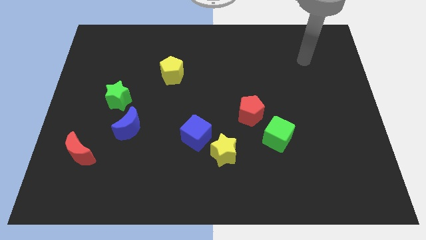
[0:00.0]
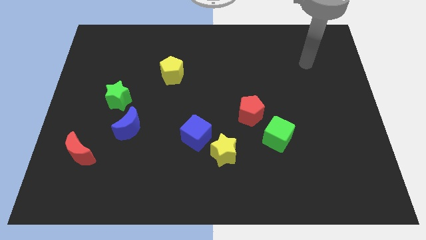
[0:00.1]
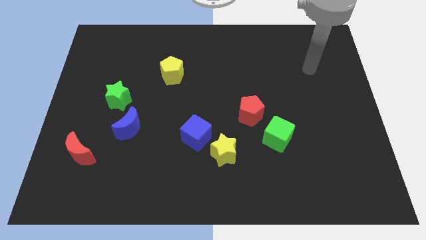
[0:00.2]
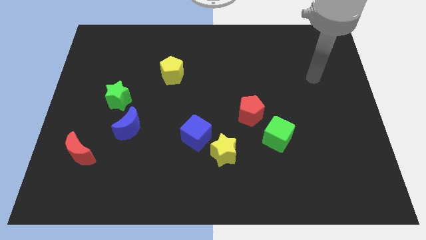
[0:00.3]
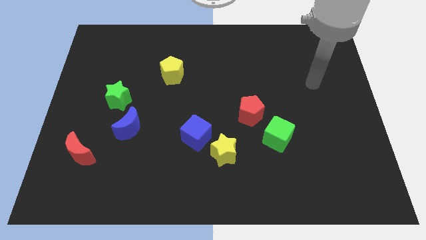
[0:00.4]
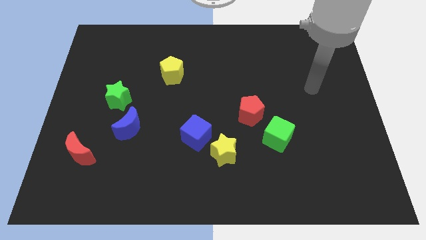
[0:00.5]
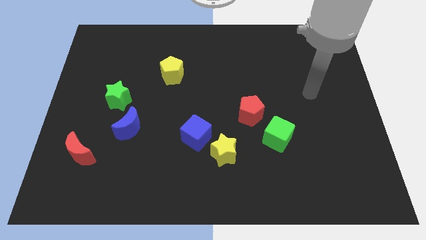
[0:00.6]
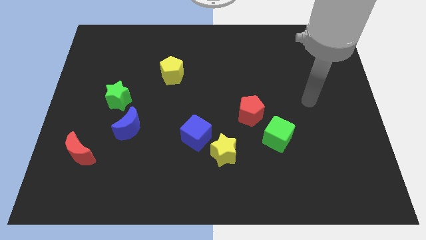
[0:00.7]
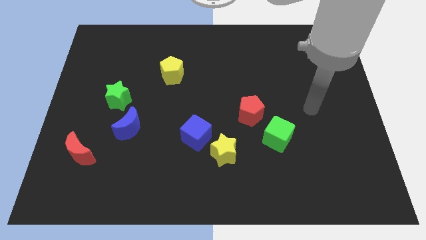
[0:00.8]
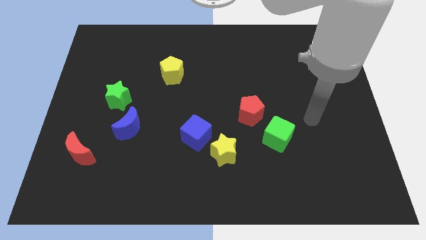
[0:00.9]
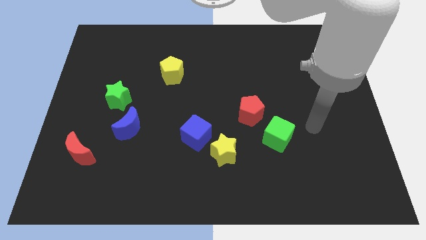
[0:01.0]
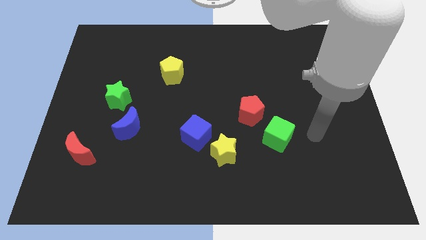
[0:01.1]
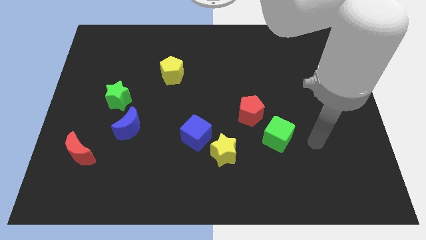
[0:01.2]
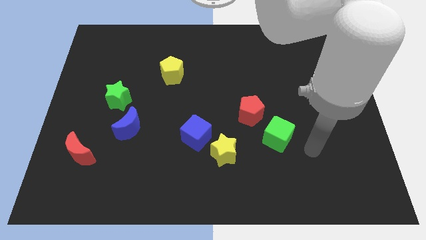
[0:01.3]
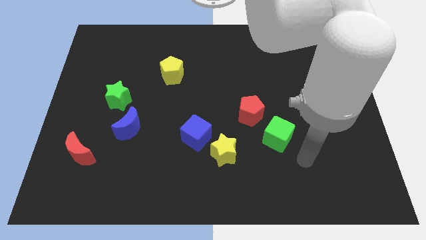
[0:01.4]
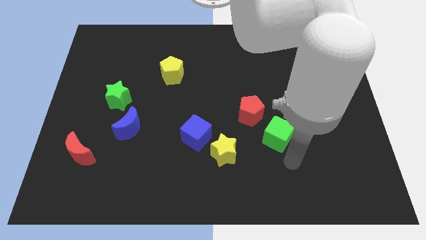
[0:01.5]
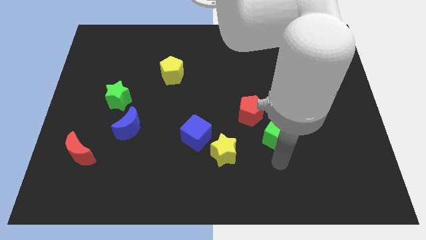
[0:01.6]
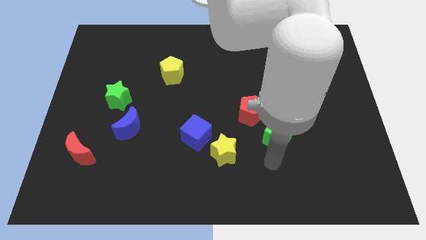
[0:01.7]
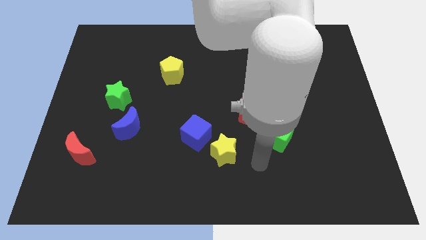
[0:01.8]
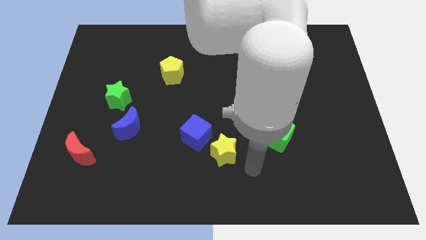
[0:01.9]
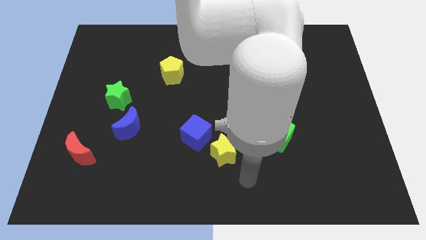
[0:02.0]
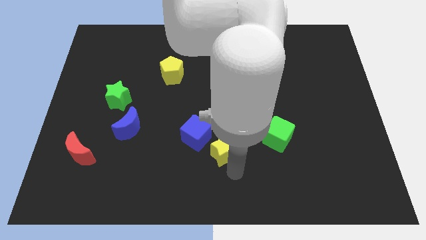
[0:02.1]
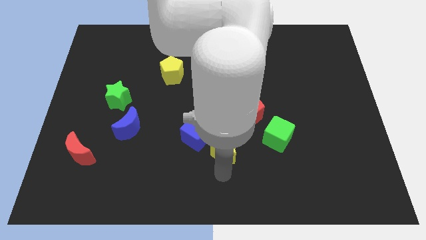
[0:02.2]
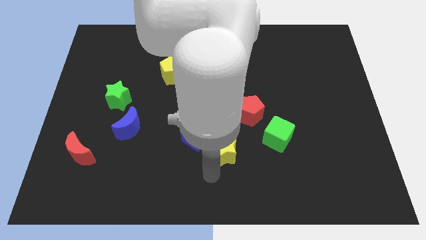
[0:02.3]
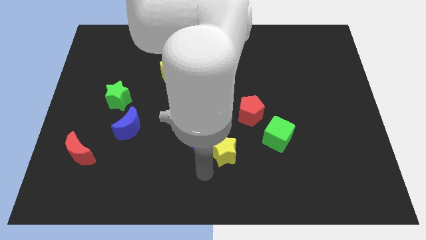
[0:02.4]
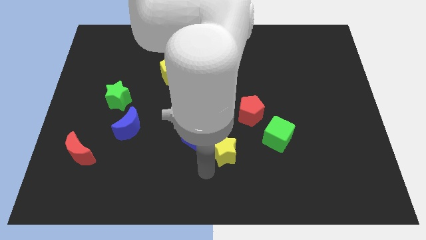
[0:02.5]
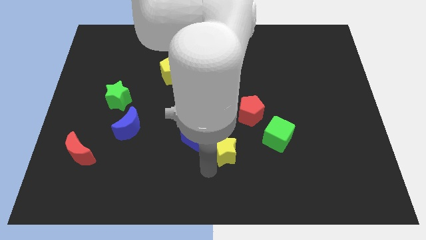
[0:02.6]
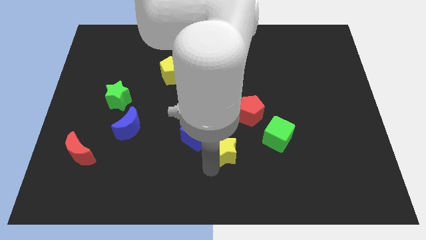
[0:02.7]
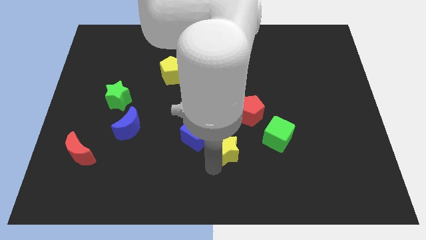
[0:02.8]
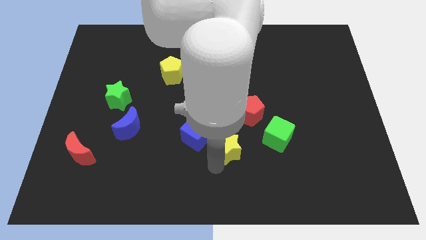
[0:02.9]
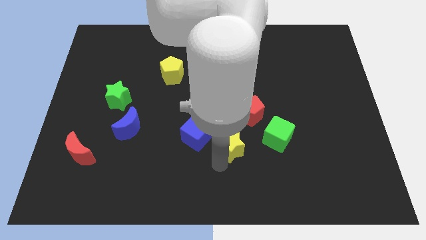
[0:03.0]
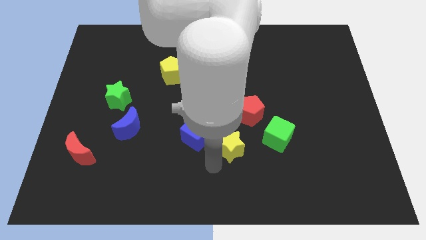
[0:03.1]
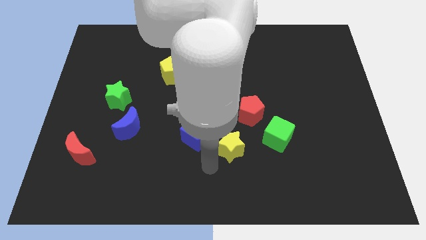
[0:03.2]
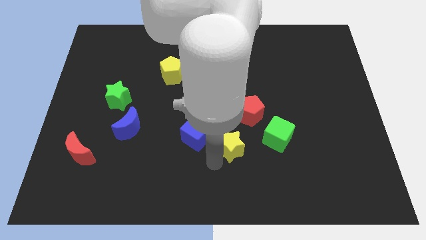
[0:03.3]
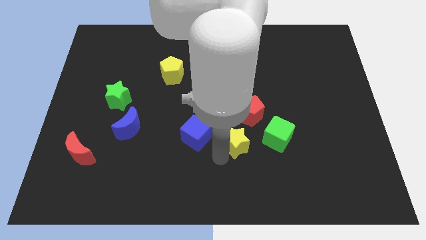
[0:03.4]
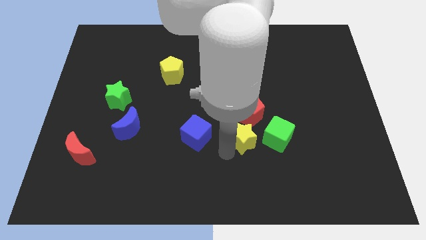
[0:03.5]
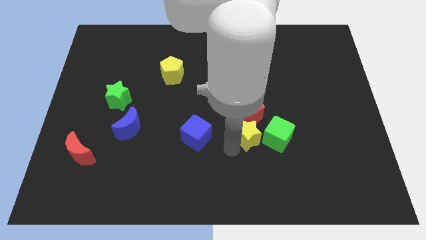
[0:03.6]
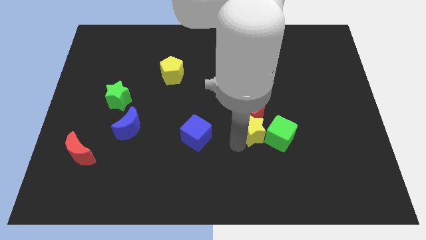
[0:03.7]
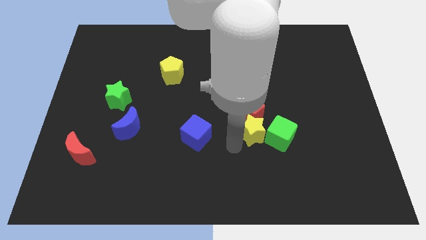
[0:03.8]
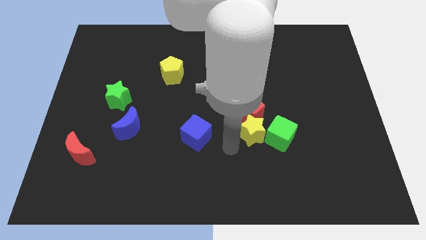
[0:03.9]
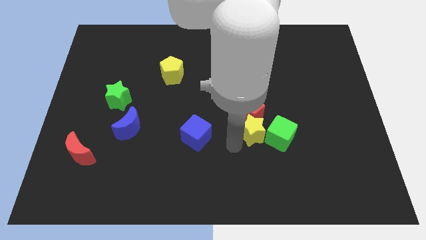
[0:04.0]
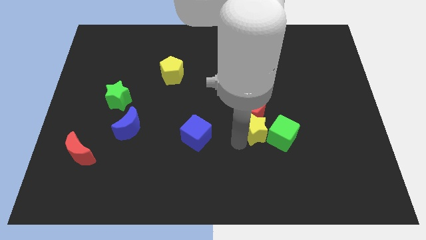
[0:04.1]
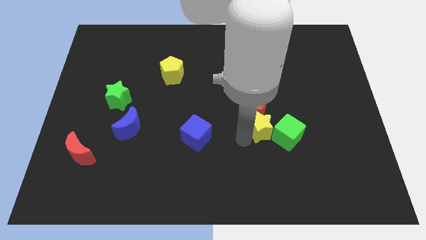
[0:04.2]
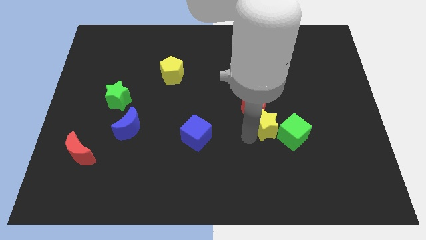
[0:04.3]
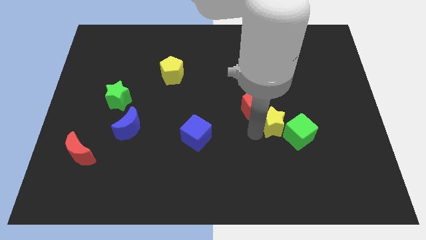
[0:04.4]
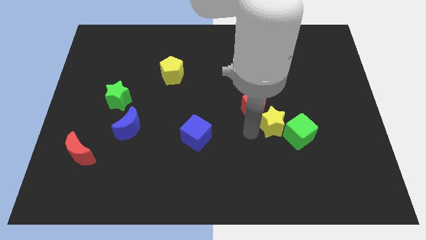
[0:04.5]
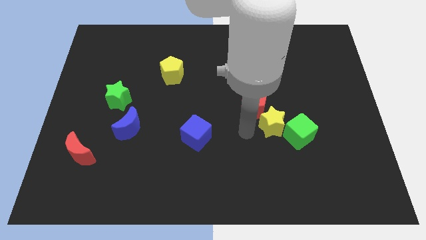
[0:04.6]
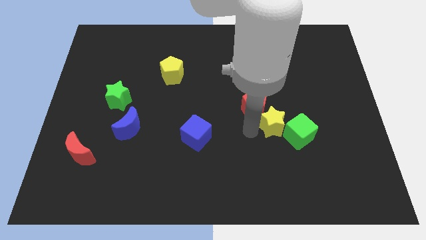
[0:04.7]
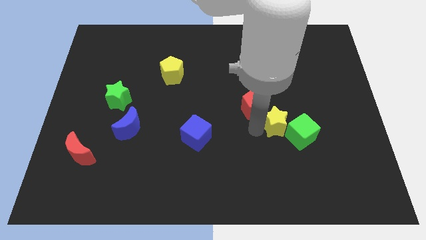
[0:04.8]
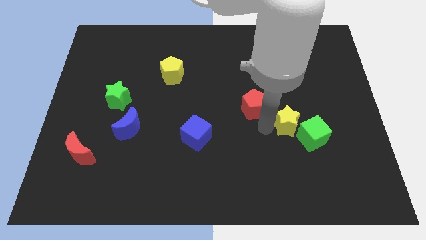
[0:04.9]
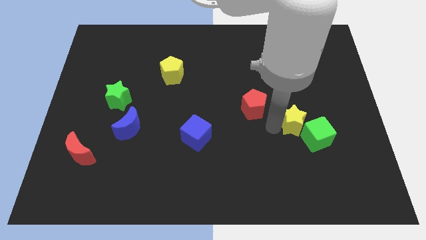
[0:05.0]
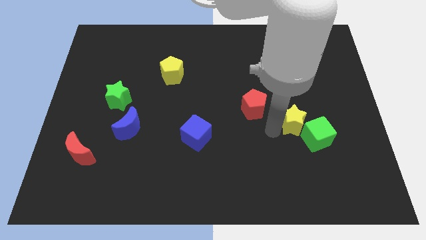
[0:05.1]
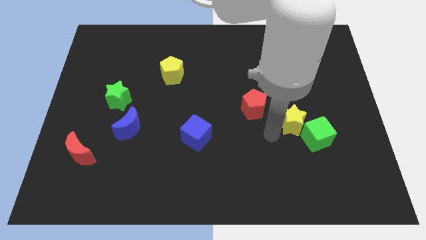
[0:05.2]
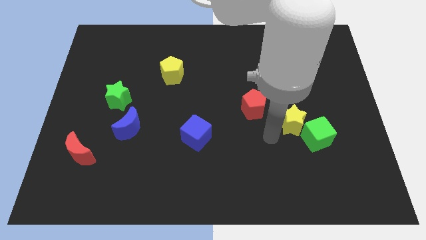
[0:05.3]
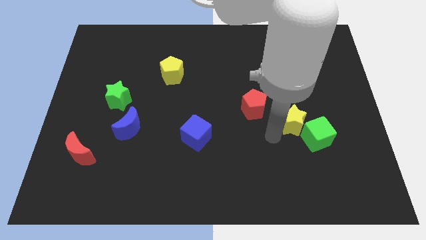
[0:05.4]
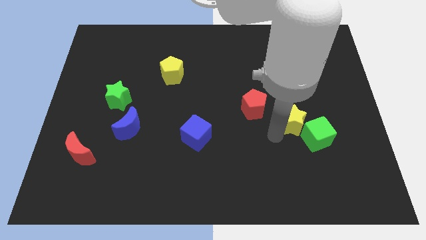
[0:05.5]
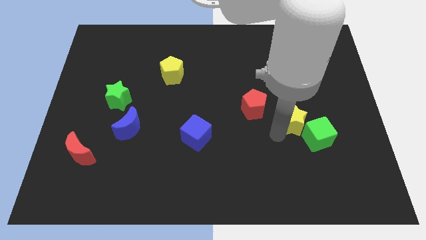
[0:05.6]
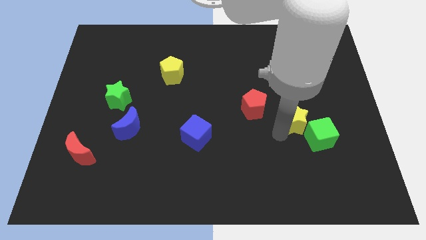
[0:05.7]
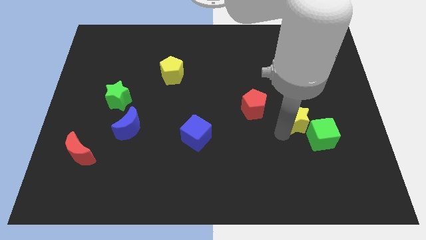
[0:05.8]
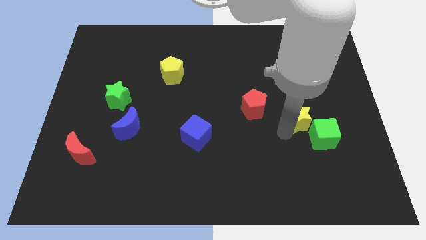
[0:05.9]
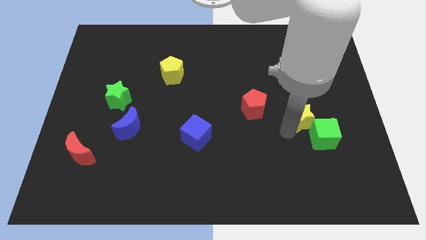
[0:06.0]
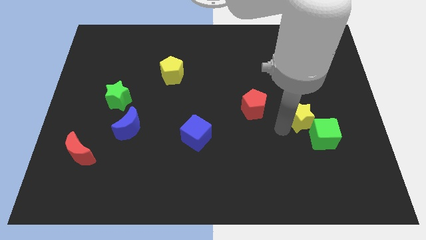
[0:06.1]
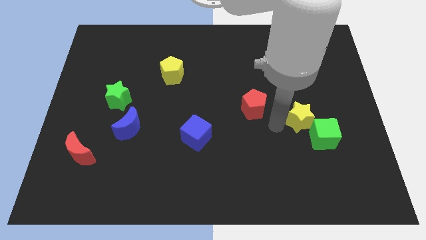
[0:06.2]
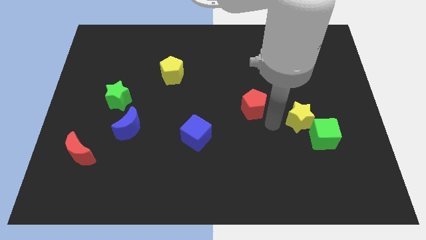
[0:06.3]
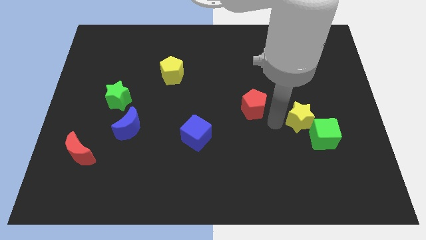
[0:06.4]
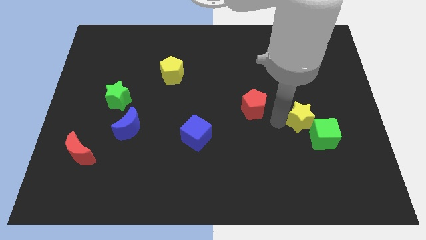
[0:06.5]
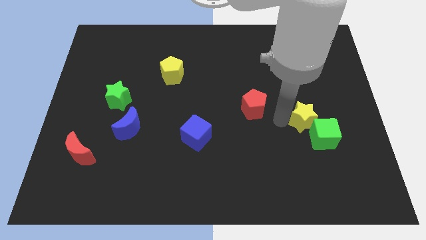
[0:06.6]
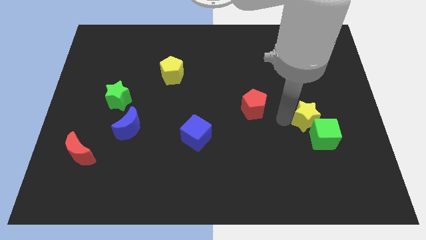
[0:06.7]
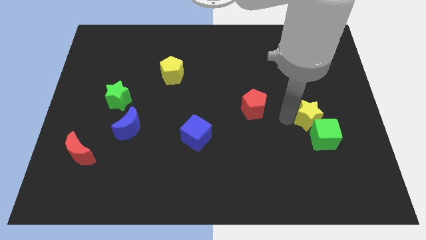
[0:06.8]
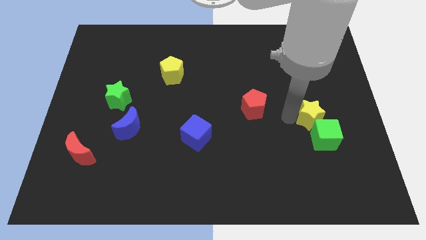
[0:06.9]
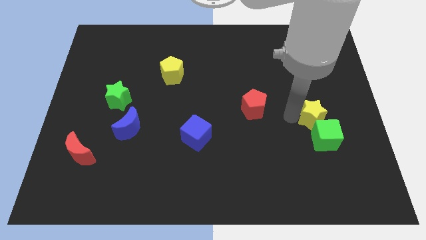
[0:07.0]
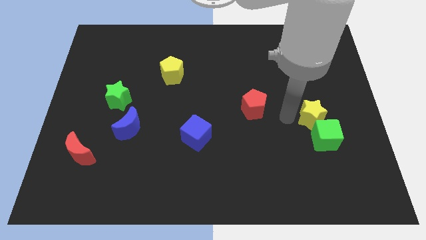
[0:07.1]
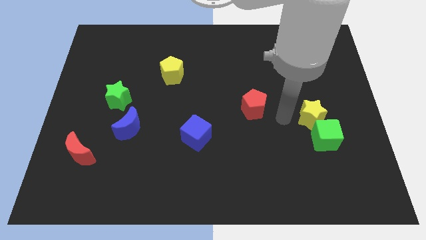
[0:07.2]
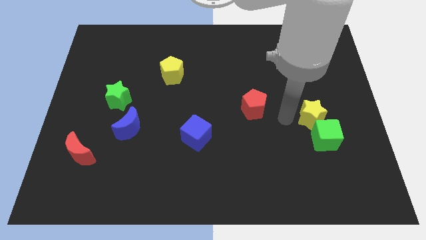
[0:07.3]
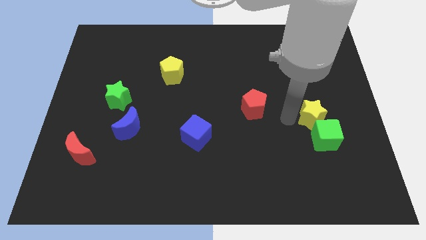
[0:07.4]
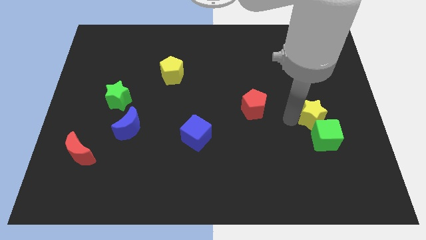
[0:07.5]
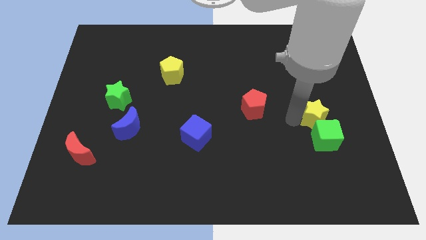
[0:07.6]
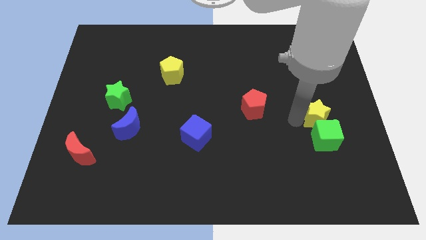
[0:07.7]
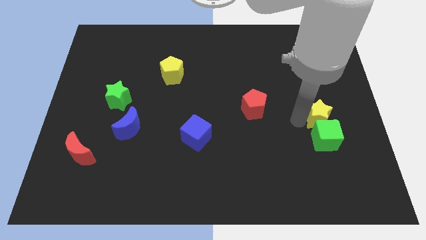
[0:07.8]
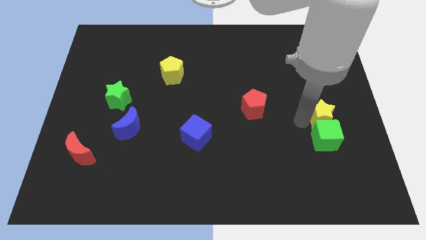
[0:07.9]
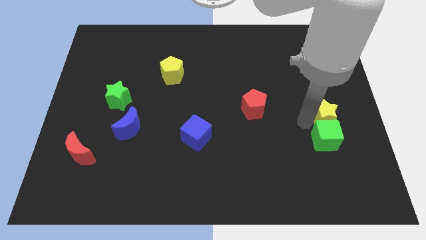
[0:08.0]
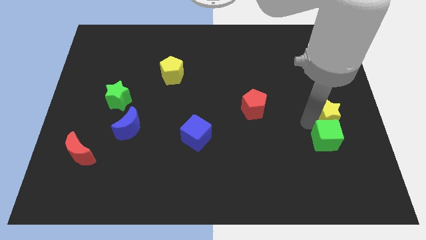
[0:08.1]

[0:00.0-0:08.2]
move the yellow star to the right side
